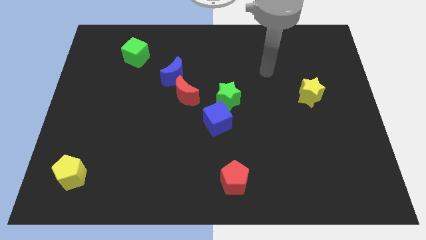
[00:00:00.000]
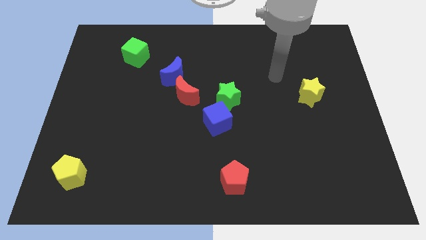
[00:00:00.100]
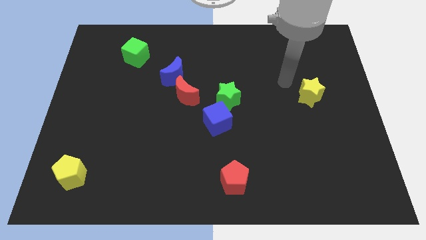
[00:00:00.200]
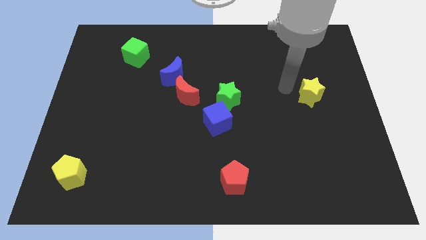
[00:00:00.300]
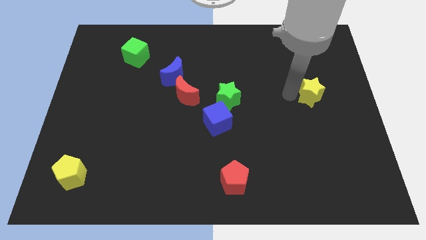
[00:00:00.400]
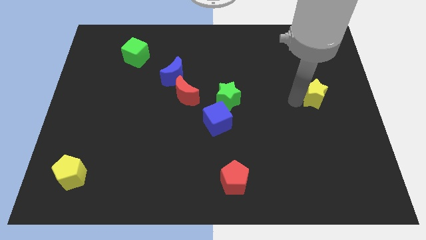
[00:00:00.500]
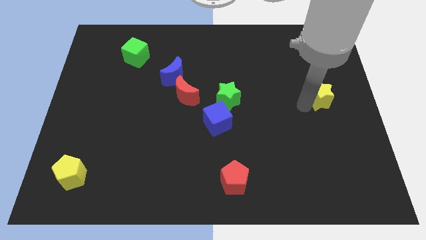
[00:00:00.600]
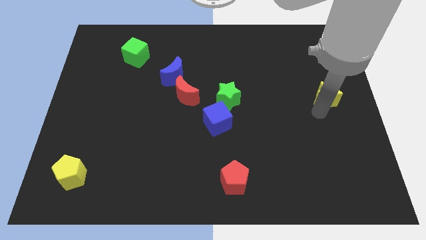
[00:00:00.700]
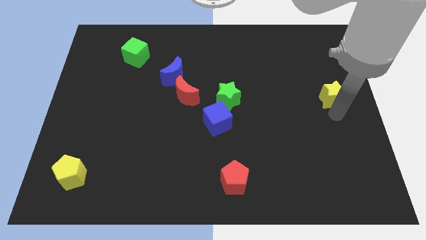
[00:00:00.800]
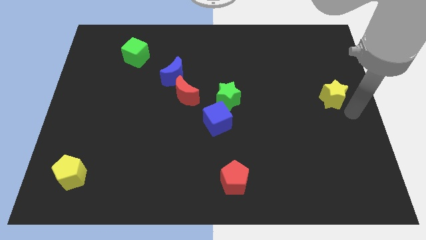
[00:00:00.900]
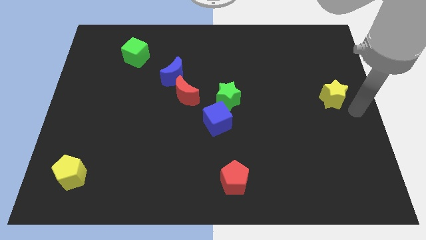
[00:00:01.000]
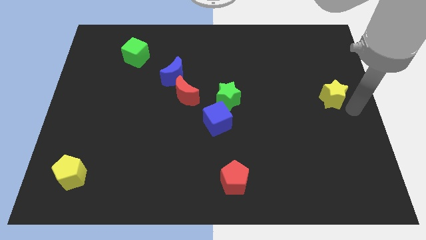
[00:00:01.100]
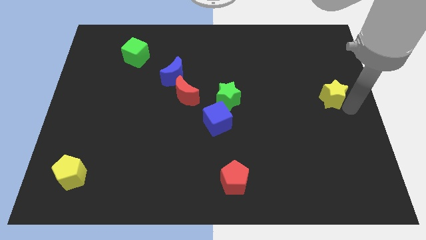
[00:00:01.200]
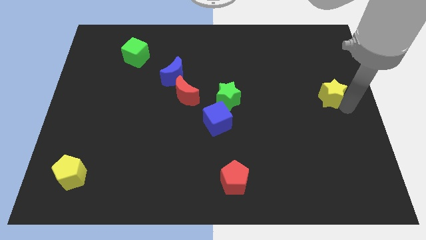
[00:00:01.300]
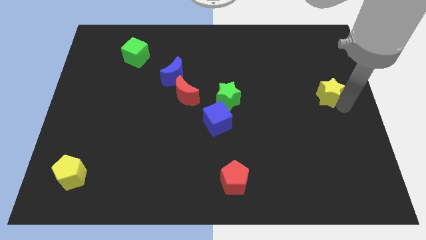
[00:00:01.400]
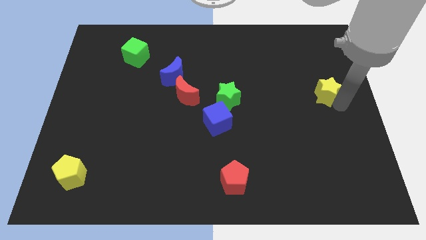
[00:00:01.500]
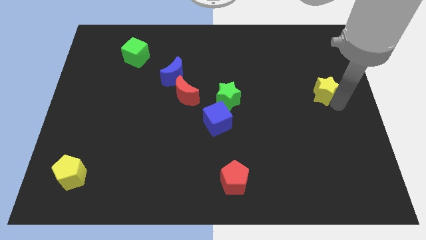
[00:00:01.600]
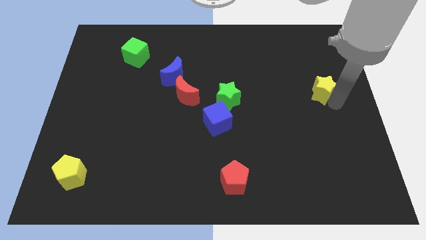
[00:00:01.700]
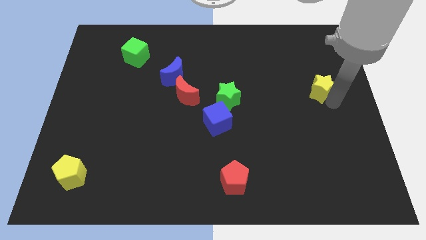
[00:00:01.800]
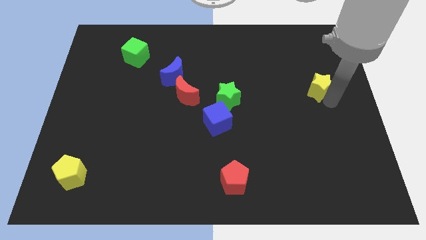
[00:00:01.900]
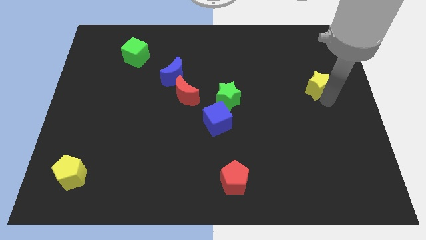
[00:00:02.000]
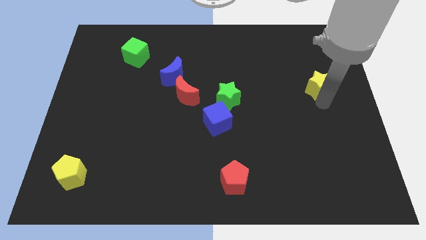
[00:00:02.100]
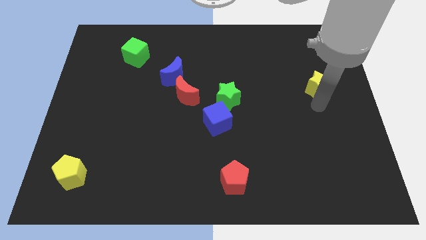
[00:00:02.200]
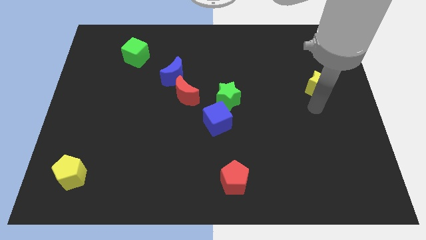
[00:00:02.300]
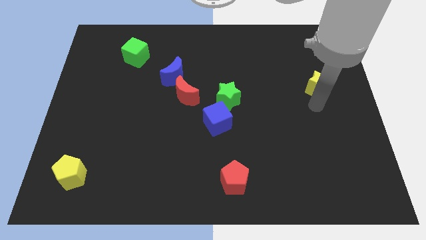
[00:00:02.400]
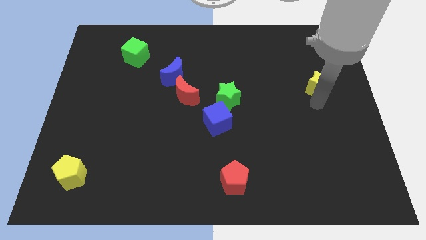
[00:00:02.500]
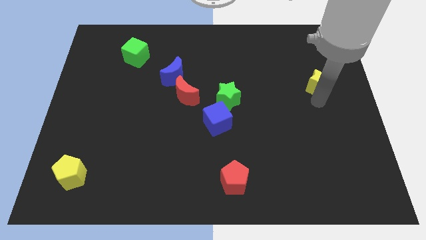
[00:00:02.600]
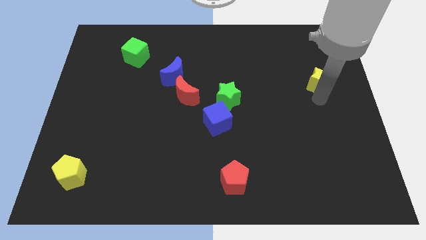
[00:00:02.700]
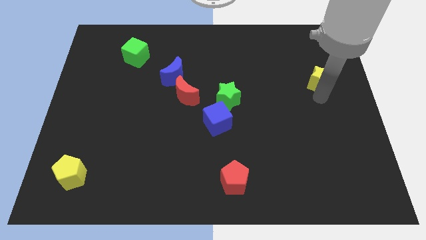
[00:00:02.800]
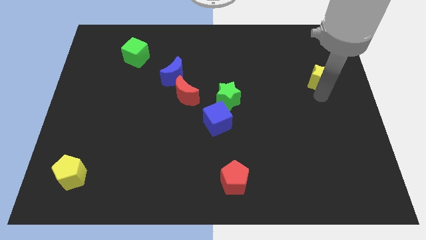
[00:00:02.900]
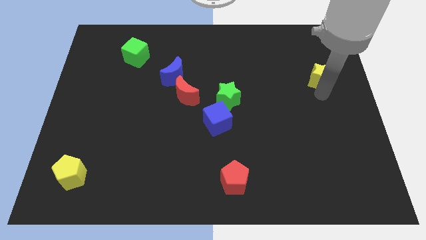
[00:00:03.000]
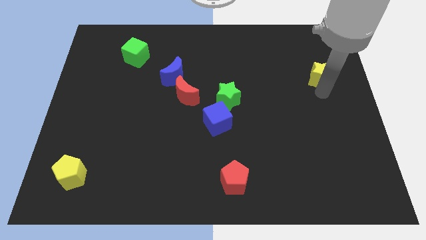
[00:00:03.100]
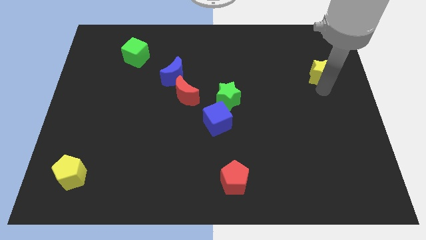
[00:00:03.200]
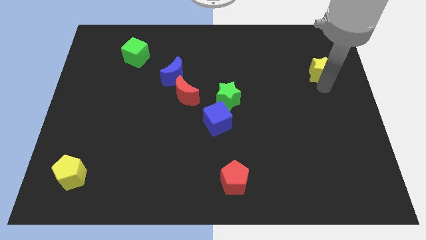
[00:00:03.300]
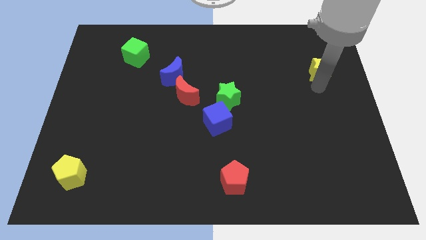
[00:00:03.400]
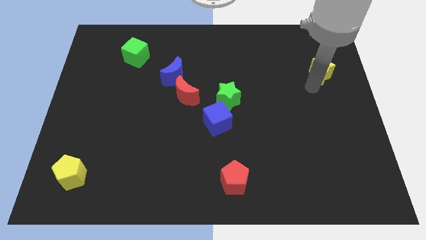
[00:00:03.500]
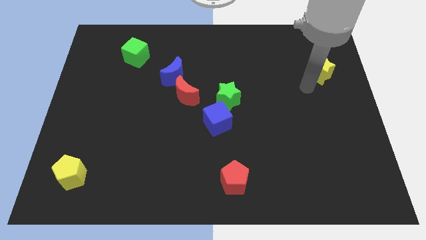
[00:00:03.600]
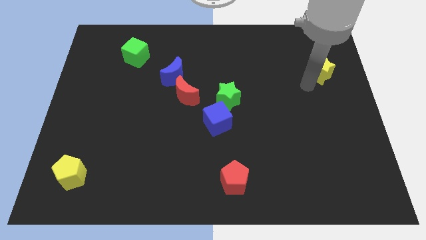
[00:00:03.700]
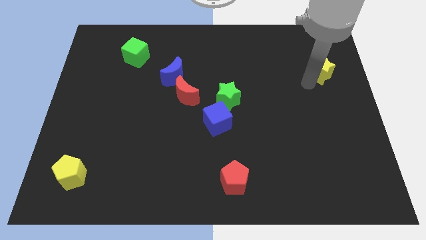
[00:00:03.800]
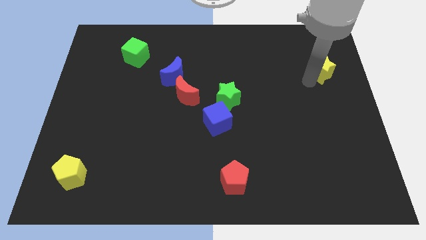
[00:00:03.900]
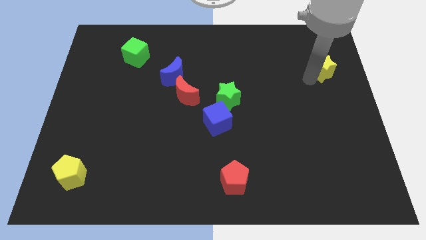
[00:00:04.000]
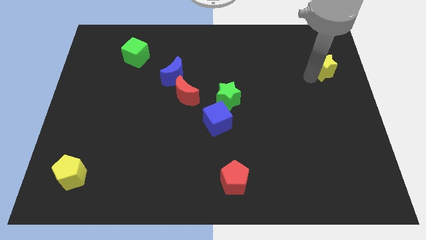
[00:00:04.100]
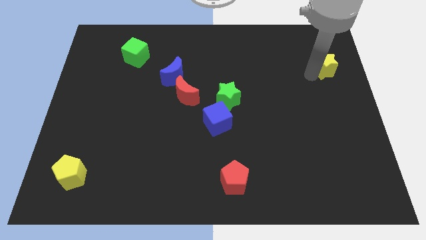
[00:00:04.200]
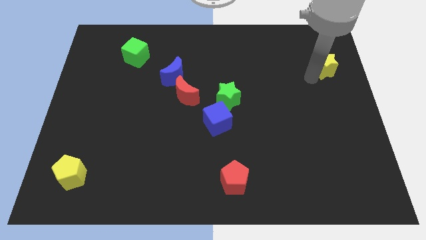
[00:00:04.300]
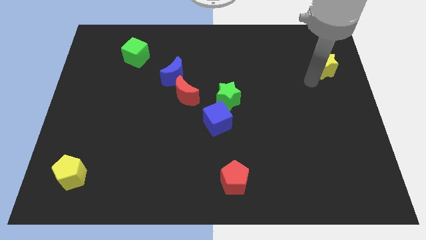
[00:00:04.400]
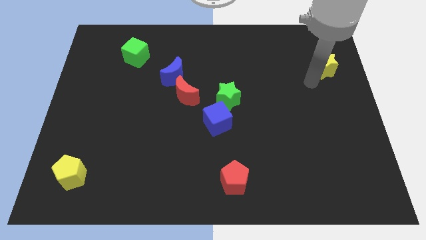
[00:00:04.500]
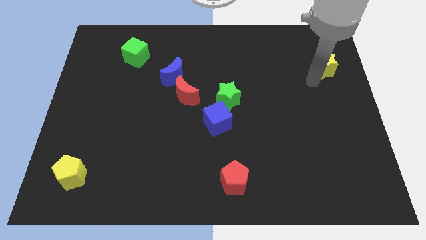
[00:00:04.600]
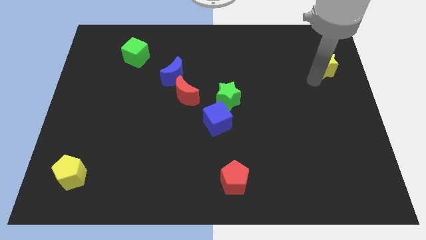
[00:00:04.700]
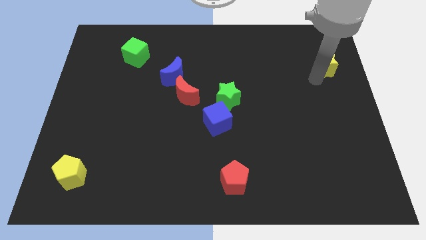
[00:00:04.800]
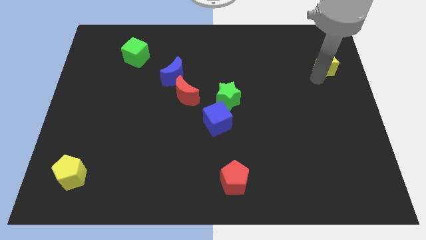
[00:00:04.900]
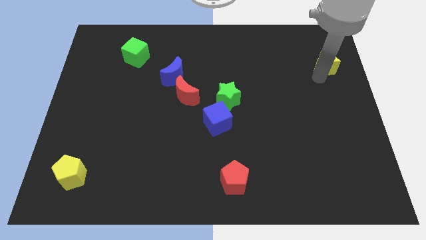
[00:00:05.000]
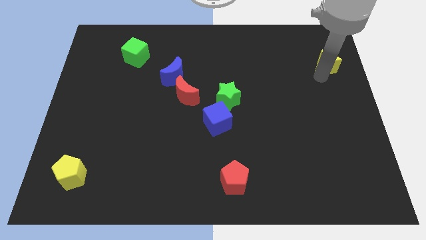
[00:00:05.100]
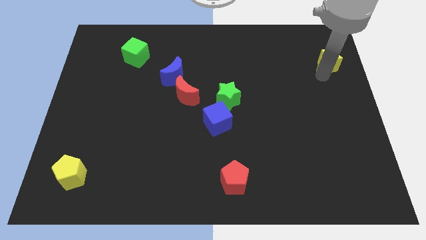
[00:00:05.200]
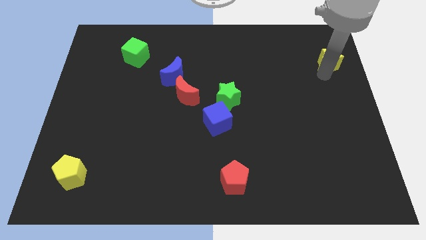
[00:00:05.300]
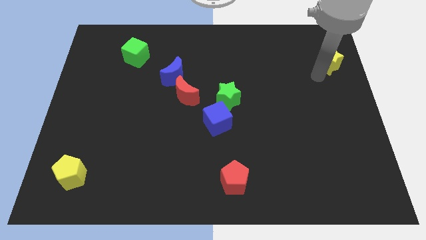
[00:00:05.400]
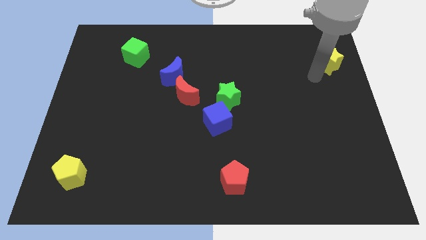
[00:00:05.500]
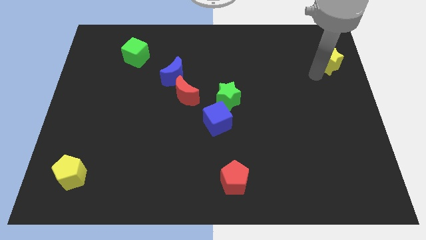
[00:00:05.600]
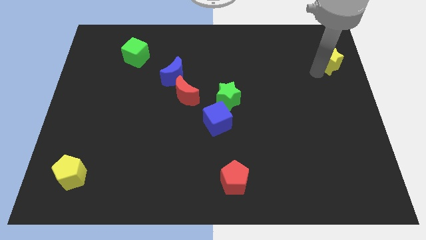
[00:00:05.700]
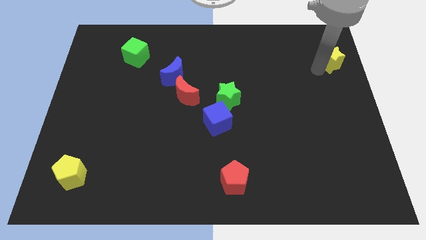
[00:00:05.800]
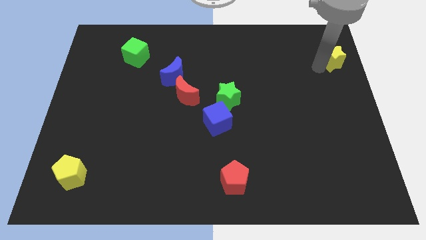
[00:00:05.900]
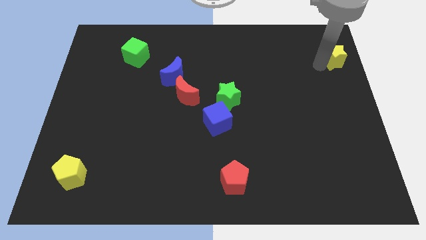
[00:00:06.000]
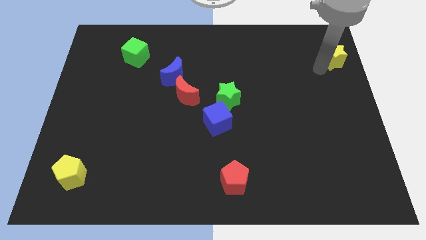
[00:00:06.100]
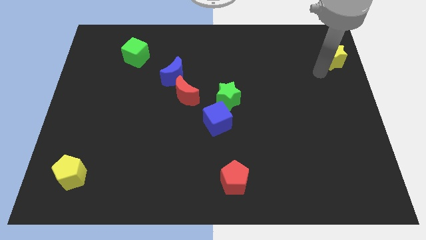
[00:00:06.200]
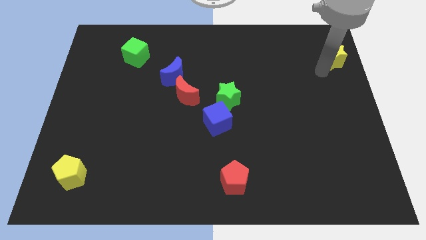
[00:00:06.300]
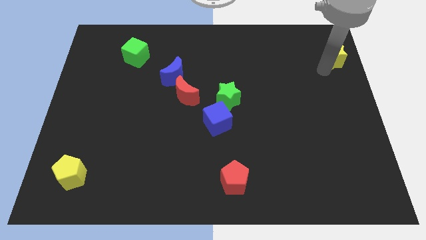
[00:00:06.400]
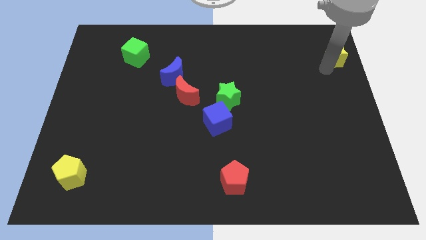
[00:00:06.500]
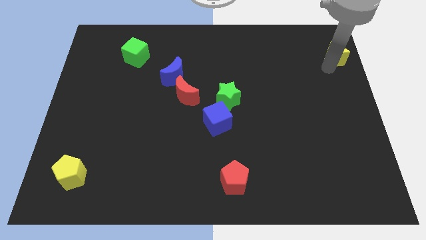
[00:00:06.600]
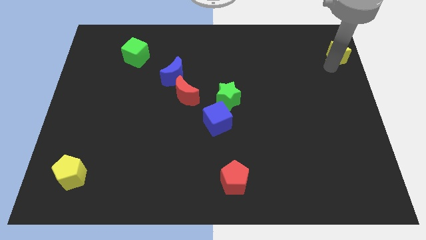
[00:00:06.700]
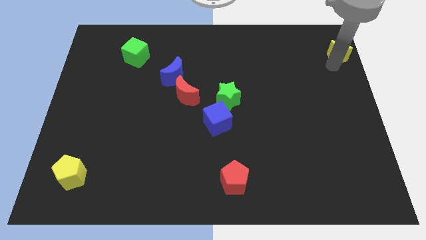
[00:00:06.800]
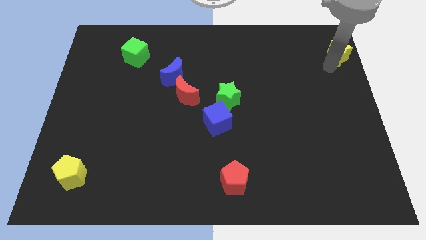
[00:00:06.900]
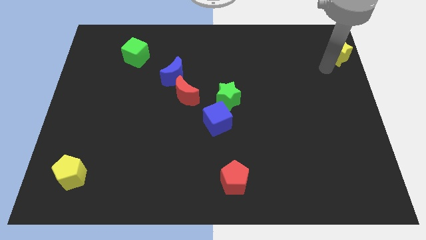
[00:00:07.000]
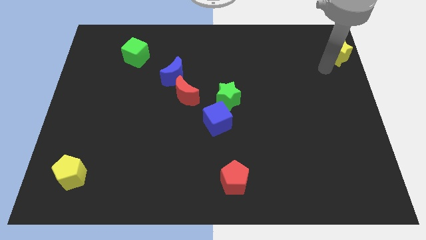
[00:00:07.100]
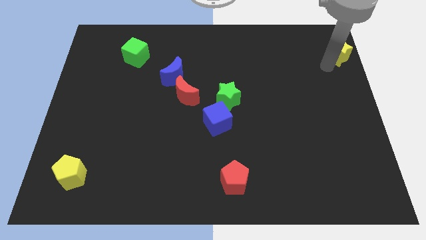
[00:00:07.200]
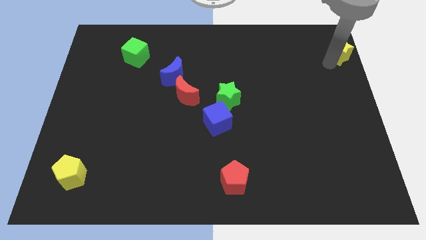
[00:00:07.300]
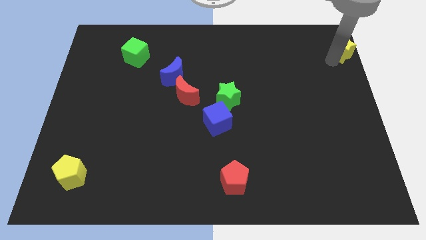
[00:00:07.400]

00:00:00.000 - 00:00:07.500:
put the yellow star to the upper right corner
